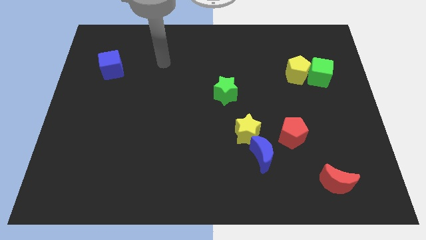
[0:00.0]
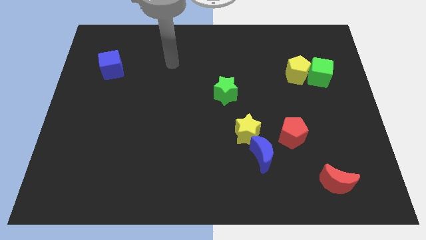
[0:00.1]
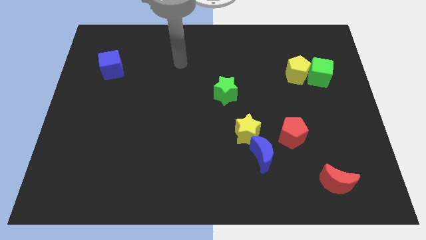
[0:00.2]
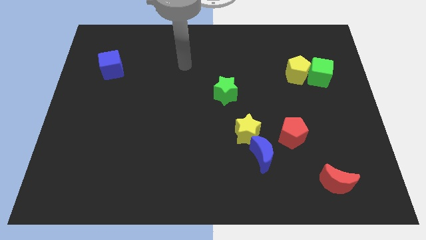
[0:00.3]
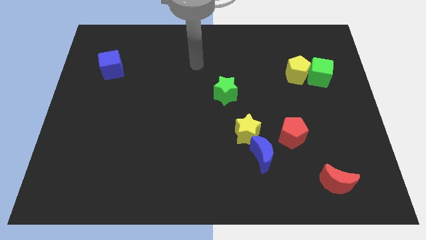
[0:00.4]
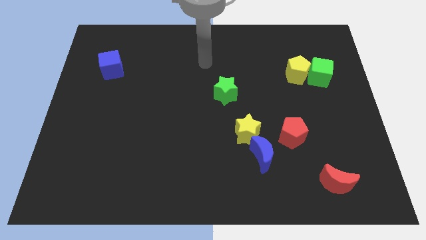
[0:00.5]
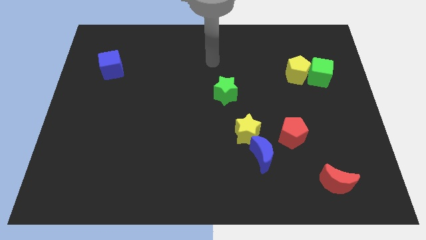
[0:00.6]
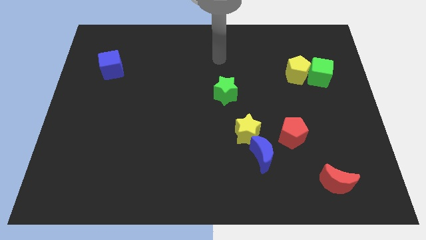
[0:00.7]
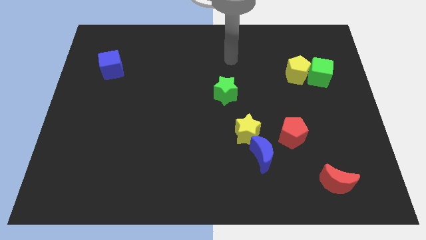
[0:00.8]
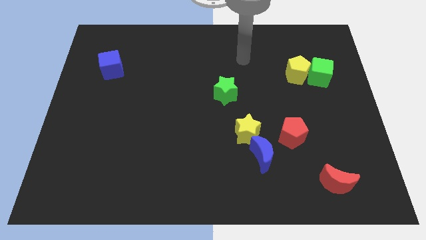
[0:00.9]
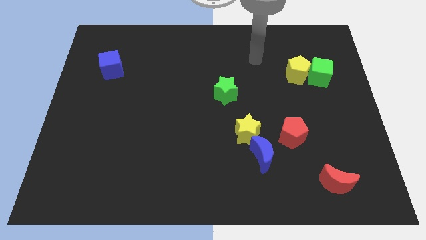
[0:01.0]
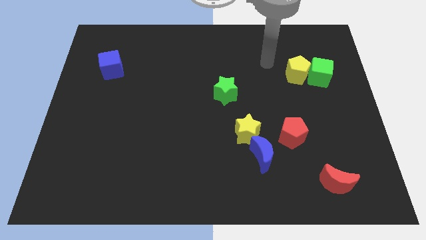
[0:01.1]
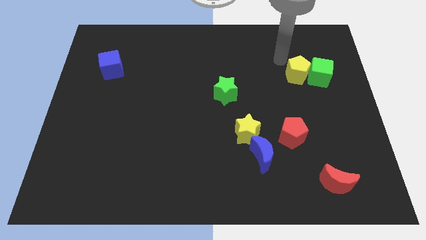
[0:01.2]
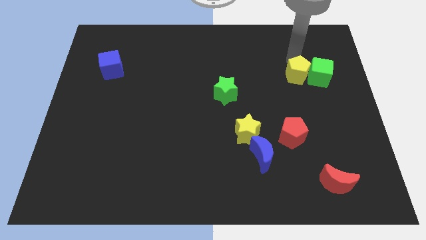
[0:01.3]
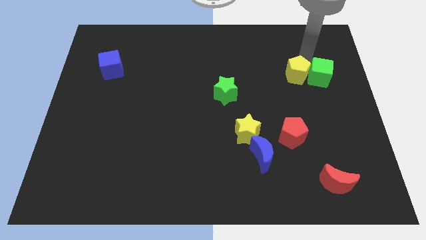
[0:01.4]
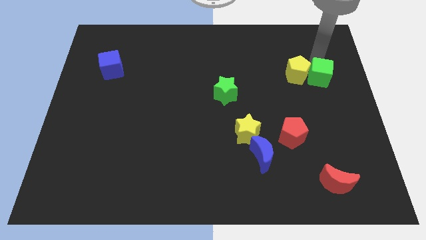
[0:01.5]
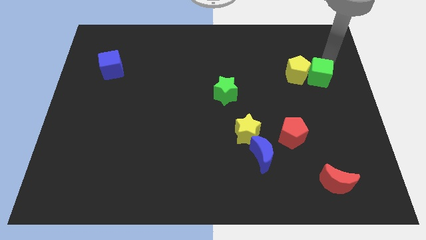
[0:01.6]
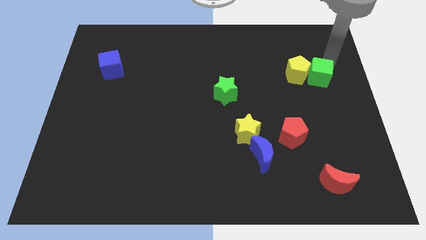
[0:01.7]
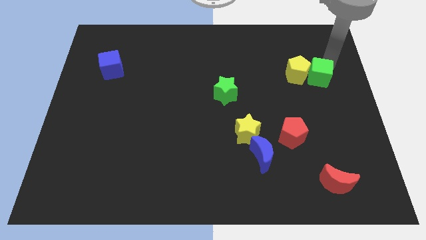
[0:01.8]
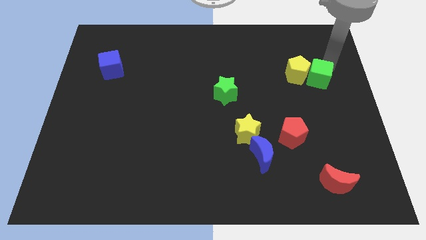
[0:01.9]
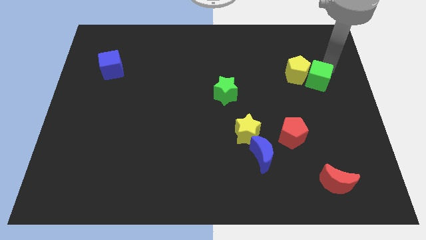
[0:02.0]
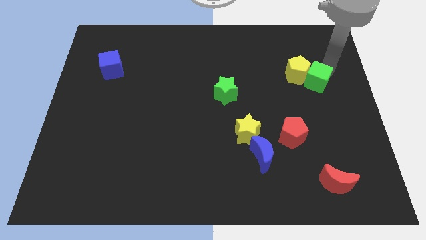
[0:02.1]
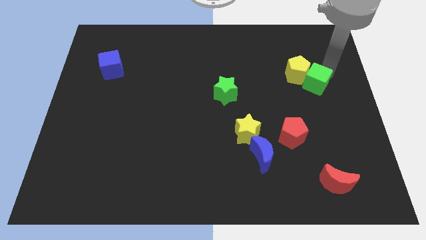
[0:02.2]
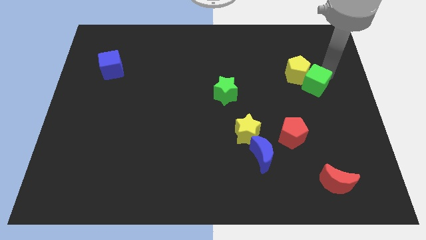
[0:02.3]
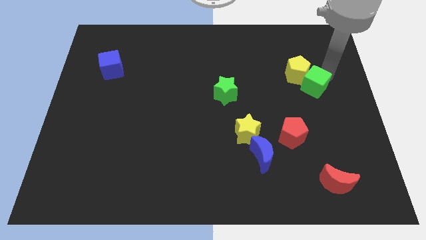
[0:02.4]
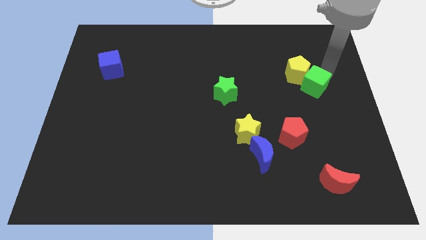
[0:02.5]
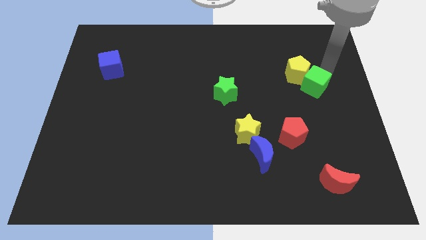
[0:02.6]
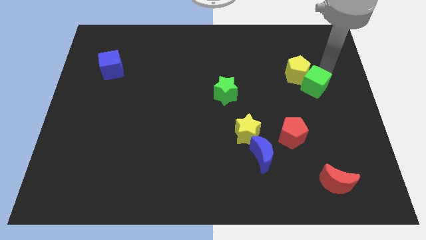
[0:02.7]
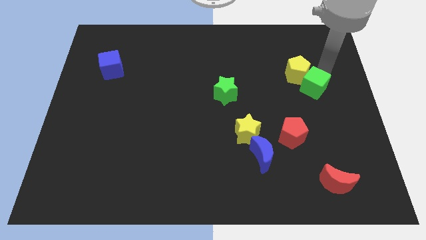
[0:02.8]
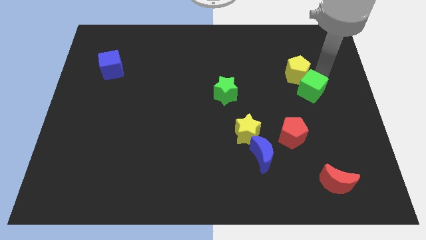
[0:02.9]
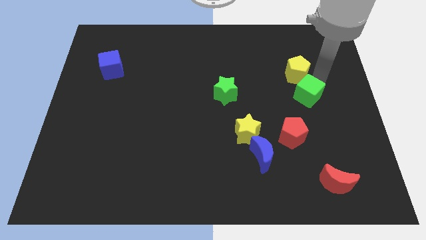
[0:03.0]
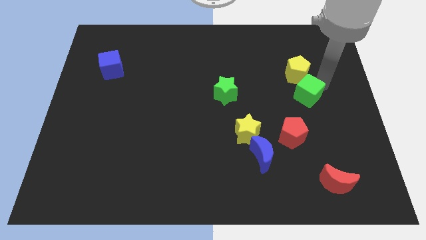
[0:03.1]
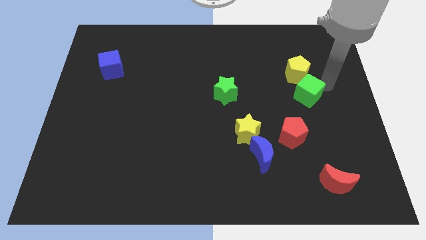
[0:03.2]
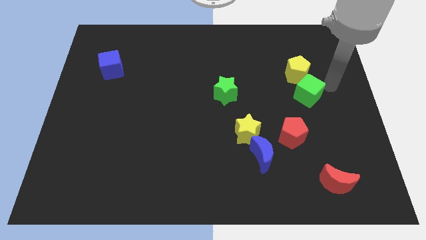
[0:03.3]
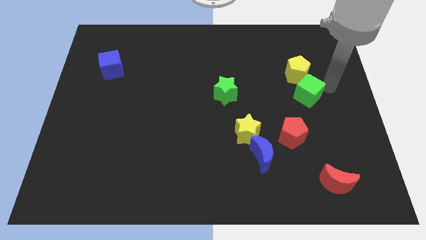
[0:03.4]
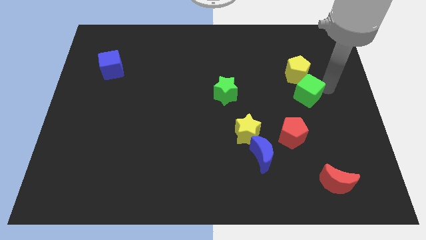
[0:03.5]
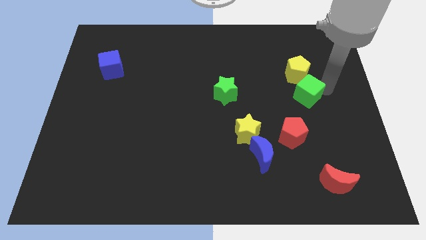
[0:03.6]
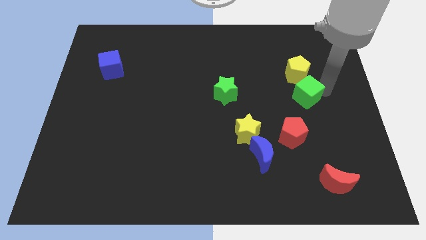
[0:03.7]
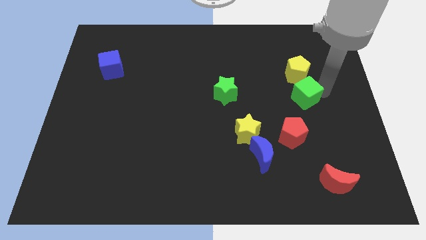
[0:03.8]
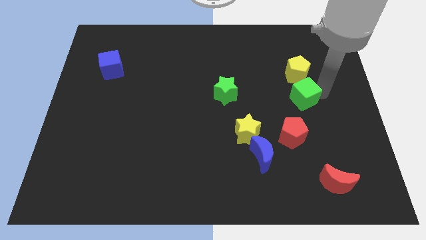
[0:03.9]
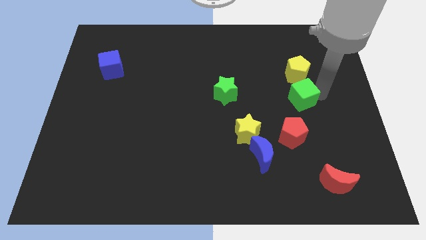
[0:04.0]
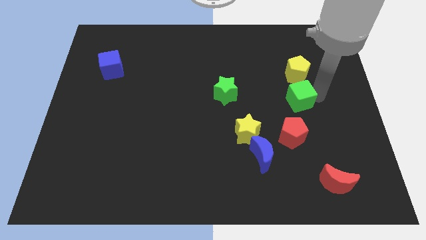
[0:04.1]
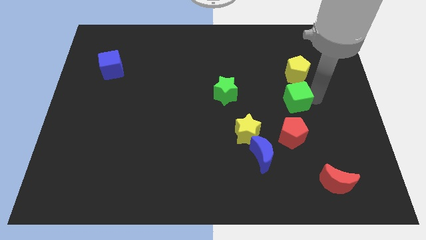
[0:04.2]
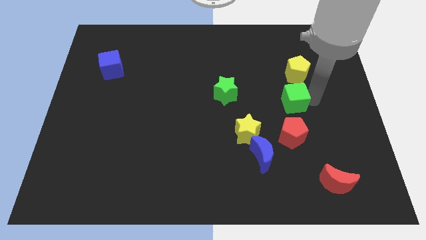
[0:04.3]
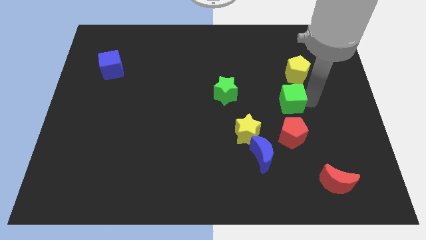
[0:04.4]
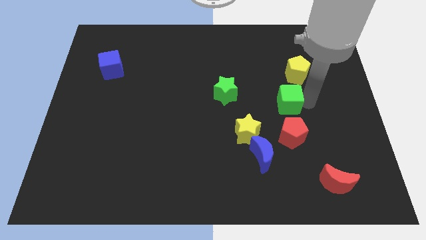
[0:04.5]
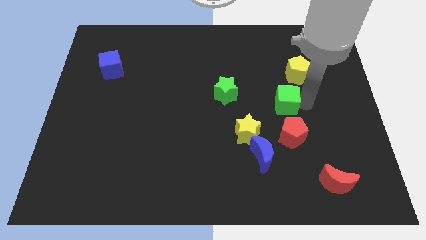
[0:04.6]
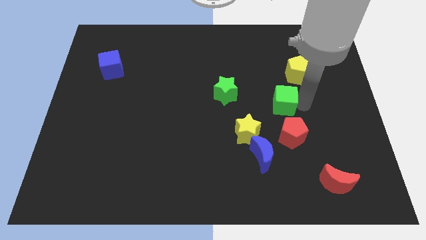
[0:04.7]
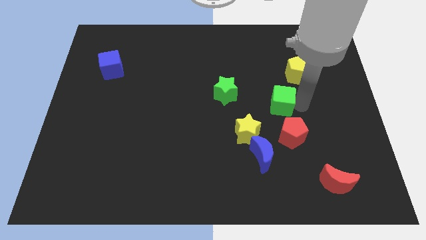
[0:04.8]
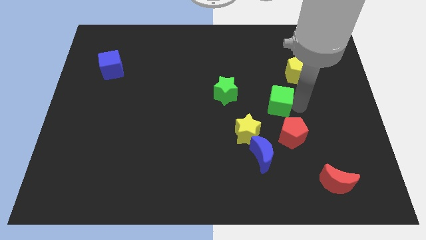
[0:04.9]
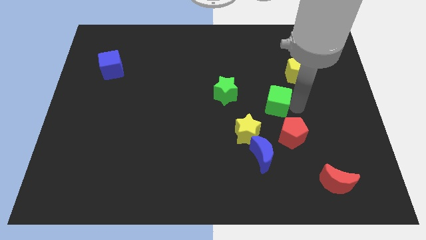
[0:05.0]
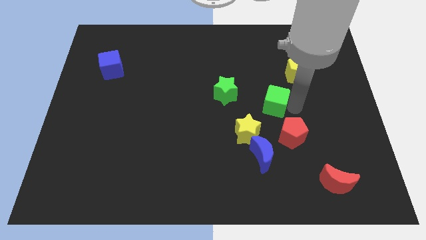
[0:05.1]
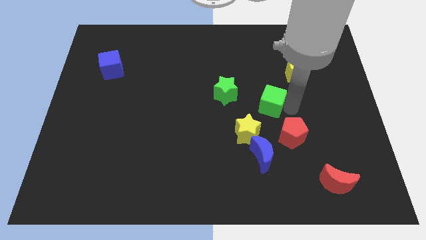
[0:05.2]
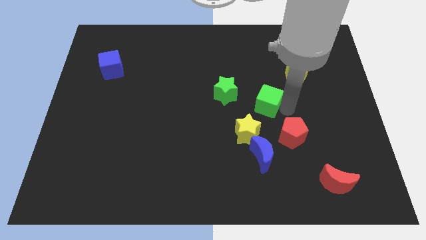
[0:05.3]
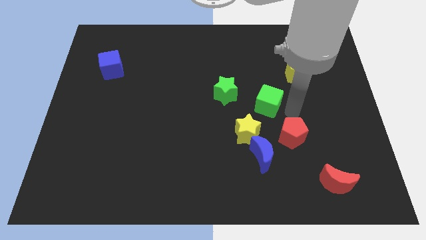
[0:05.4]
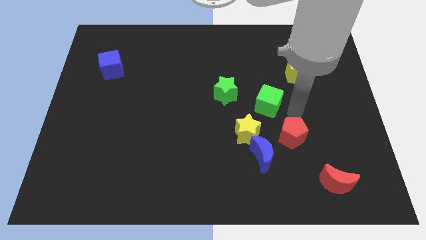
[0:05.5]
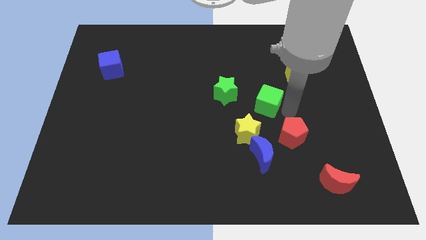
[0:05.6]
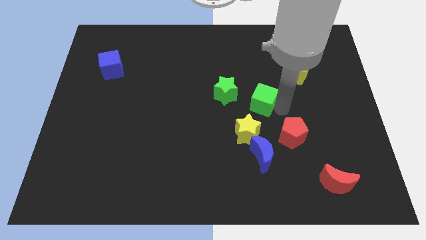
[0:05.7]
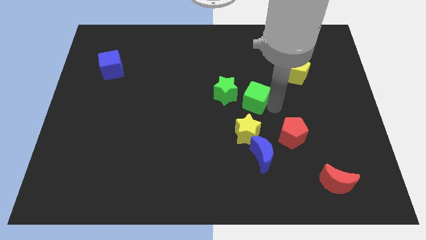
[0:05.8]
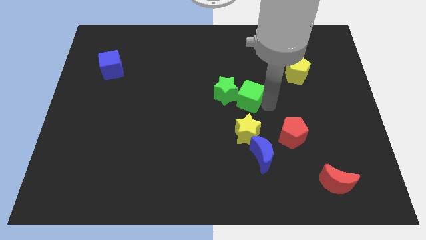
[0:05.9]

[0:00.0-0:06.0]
slide the green cube towards the green star
